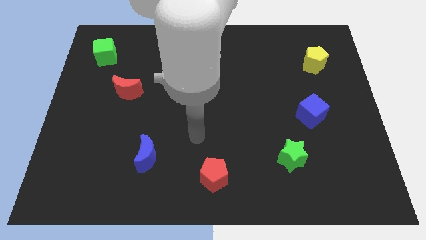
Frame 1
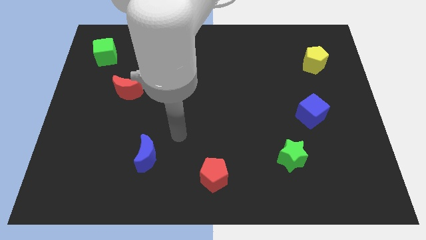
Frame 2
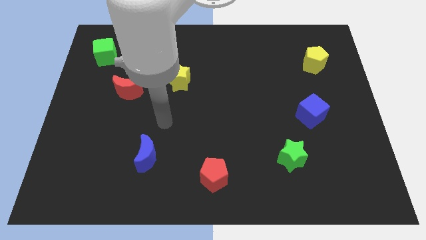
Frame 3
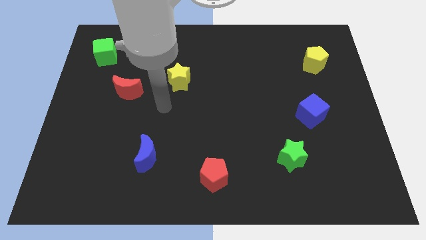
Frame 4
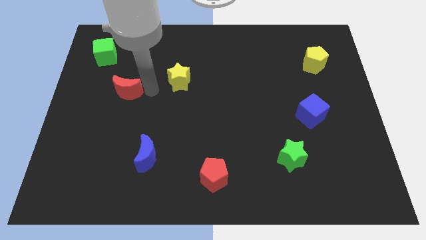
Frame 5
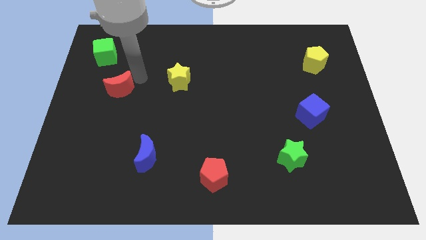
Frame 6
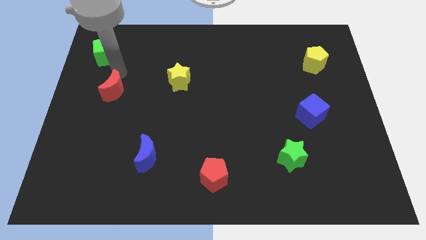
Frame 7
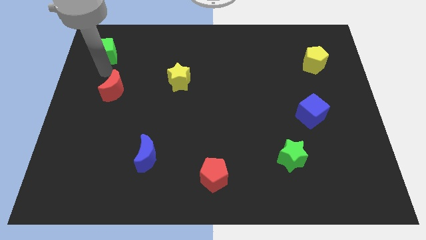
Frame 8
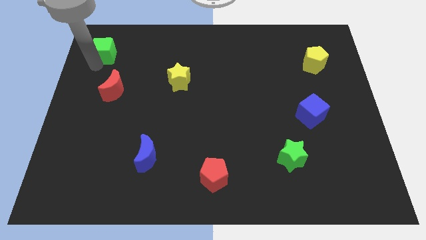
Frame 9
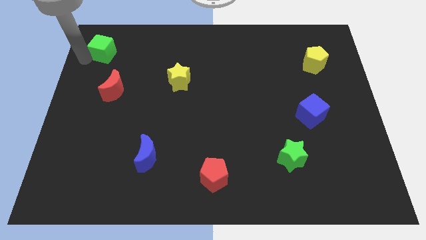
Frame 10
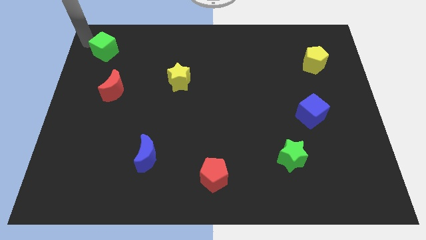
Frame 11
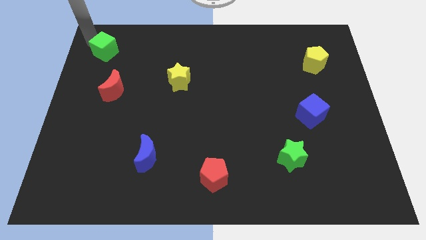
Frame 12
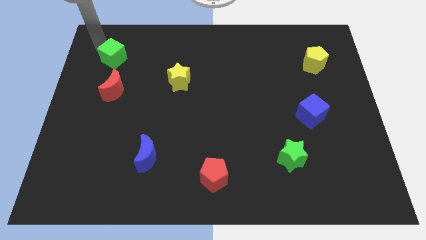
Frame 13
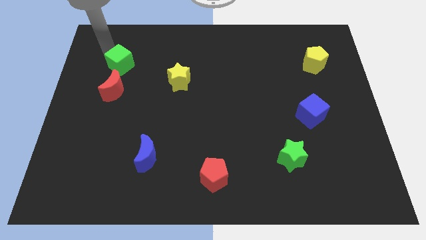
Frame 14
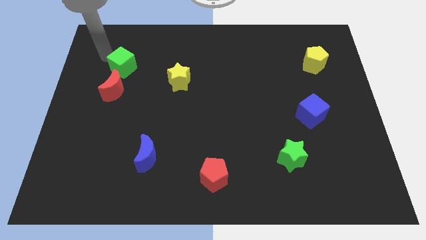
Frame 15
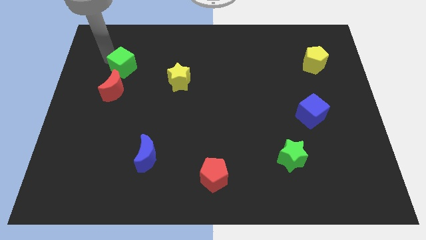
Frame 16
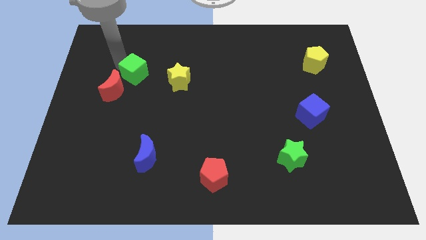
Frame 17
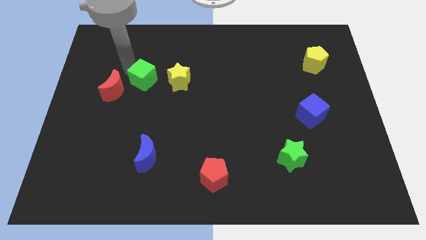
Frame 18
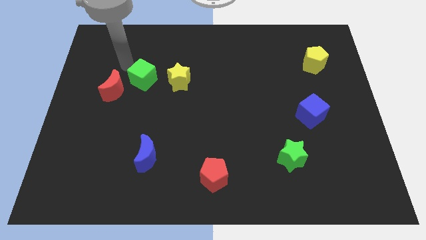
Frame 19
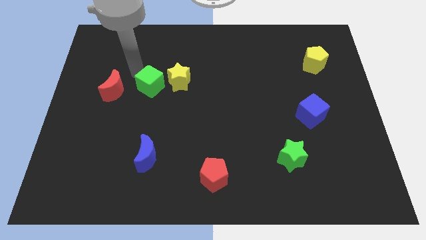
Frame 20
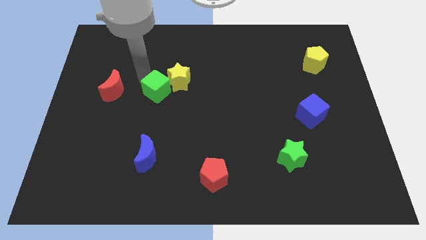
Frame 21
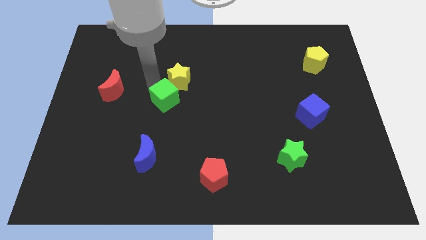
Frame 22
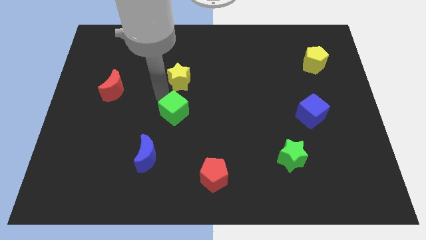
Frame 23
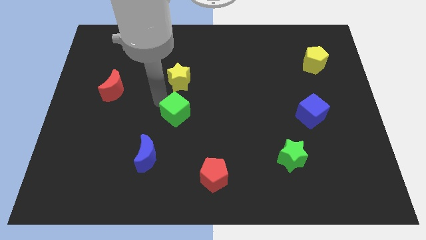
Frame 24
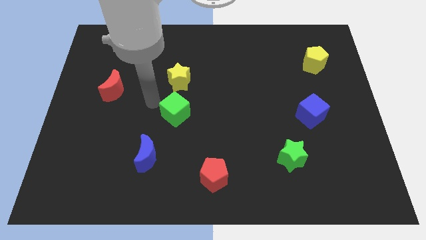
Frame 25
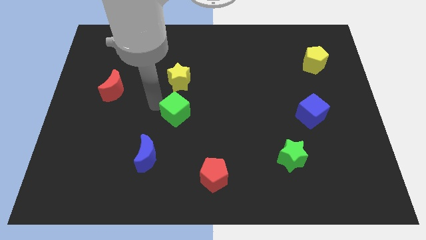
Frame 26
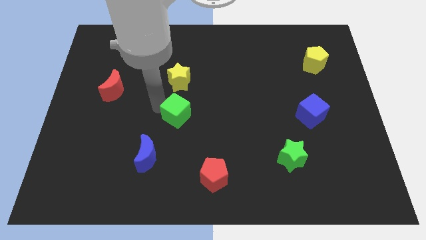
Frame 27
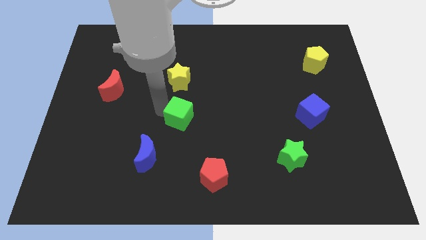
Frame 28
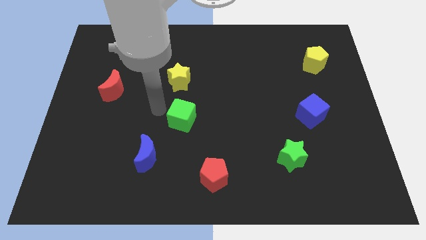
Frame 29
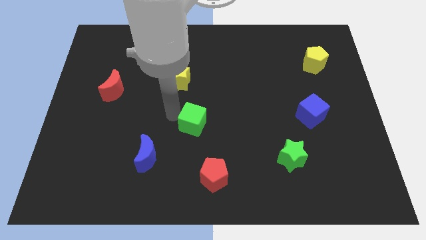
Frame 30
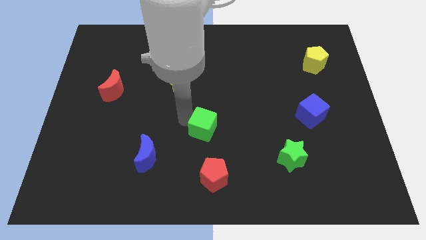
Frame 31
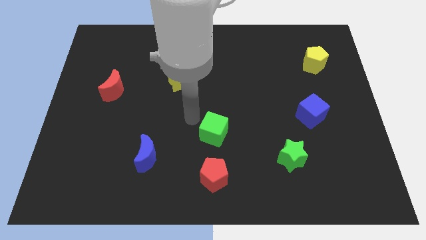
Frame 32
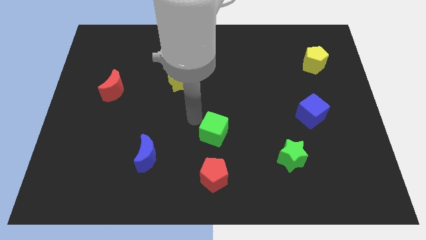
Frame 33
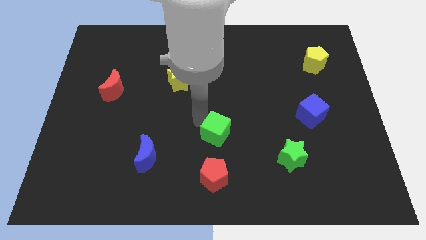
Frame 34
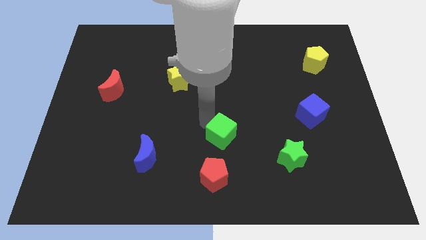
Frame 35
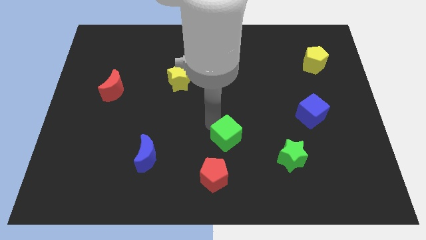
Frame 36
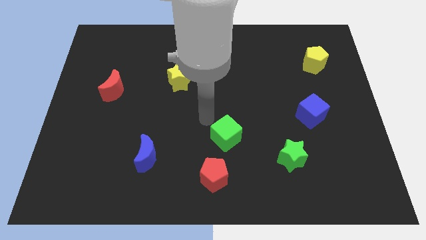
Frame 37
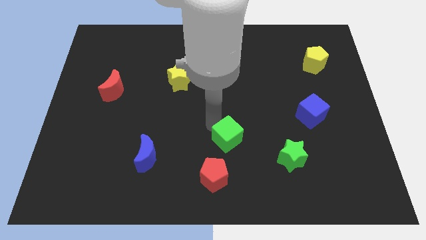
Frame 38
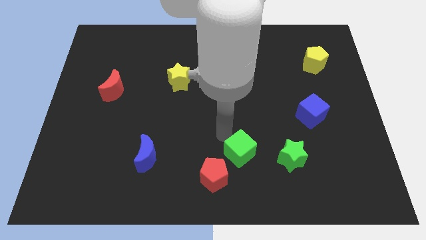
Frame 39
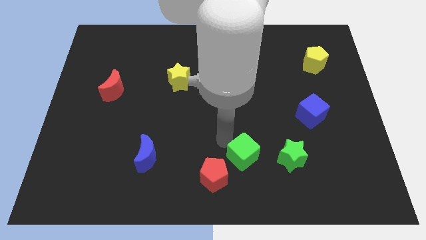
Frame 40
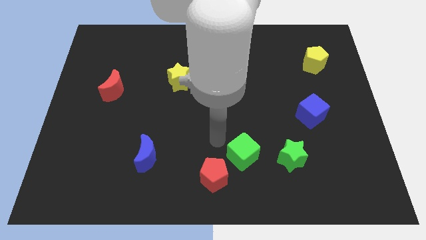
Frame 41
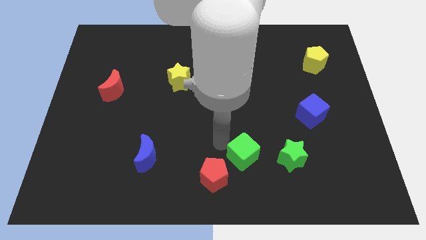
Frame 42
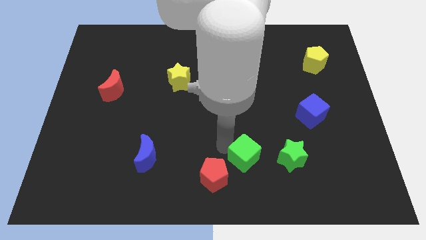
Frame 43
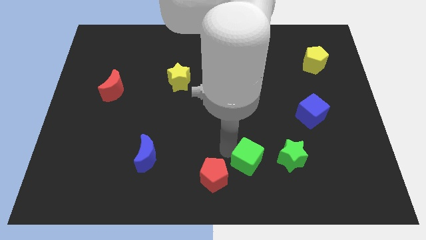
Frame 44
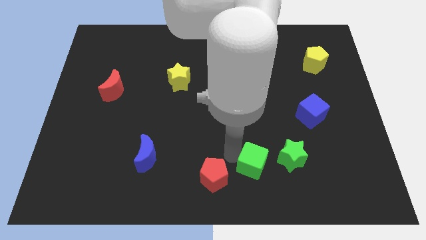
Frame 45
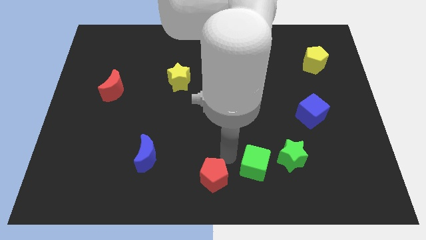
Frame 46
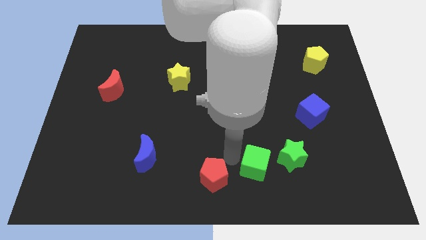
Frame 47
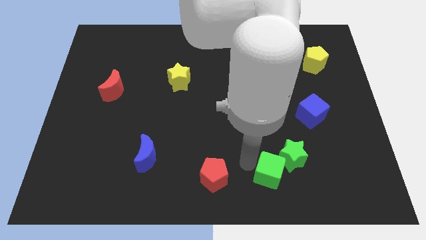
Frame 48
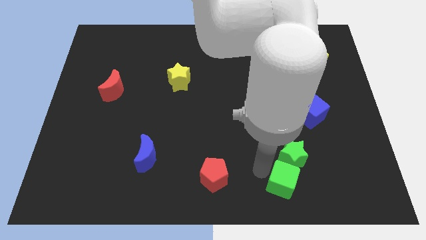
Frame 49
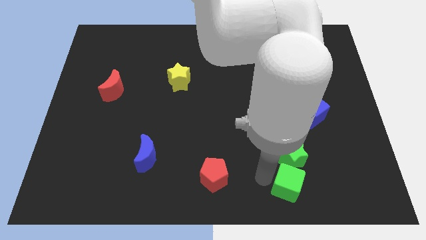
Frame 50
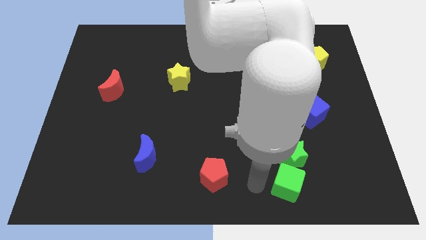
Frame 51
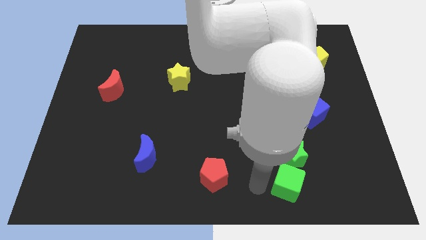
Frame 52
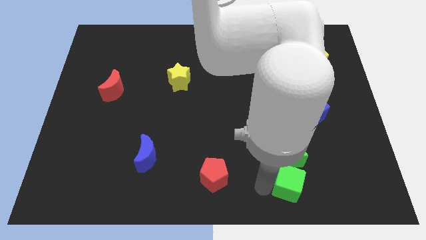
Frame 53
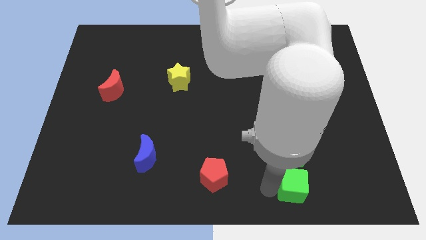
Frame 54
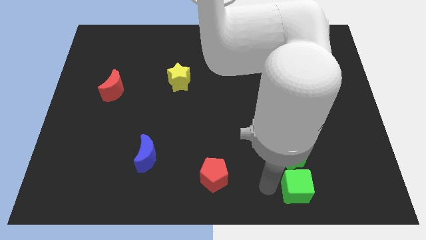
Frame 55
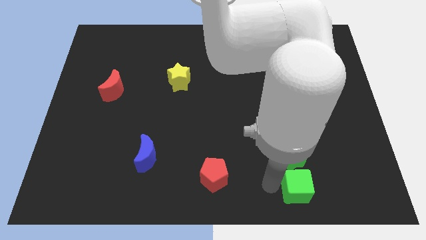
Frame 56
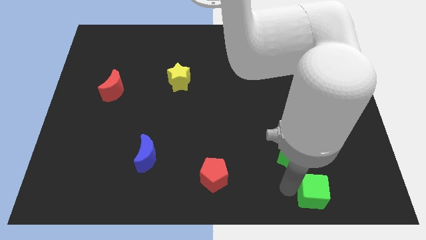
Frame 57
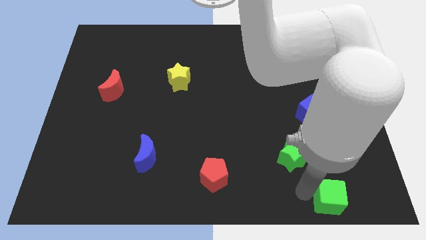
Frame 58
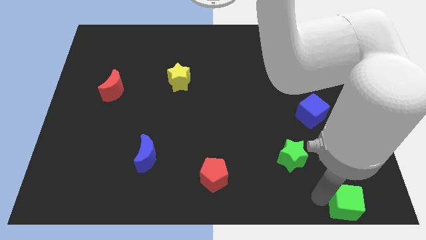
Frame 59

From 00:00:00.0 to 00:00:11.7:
put the green cube to the bottom right of the board

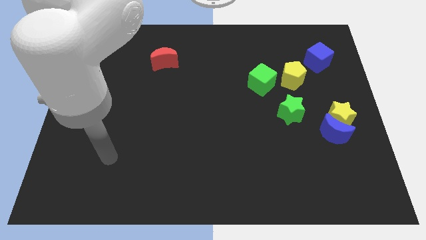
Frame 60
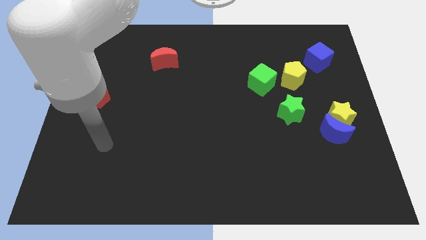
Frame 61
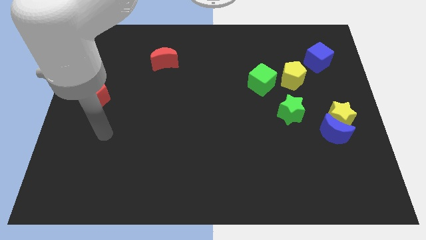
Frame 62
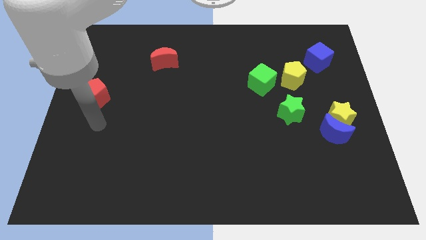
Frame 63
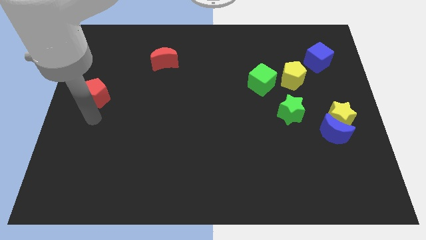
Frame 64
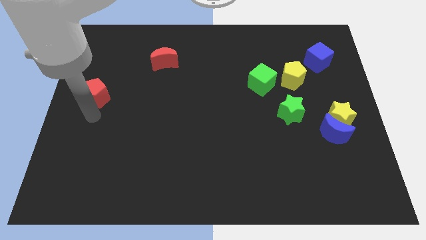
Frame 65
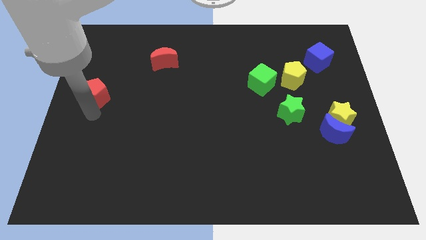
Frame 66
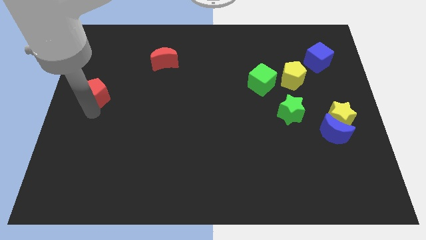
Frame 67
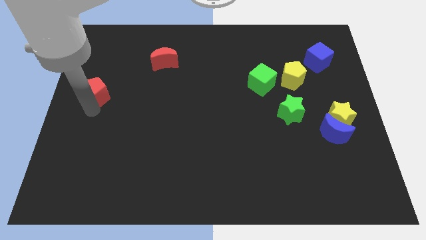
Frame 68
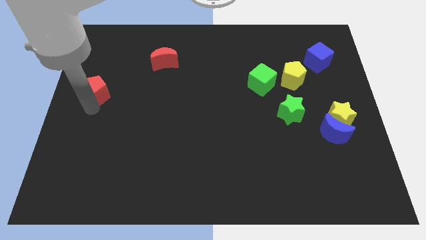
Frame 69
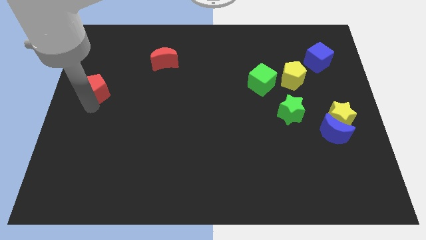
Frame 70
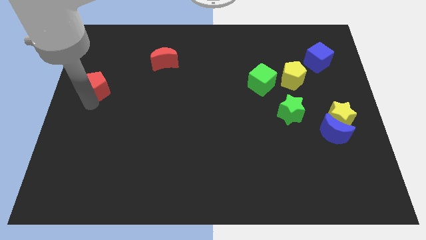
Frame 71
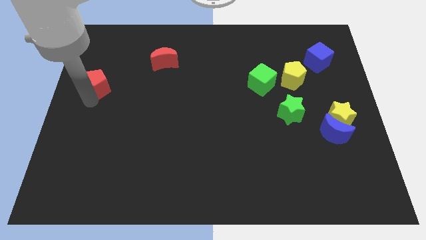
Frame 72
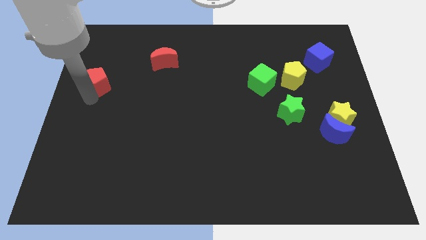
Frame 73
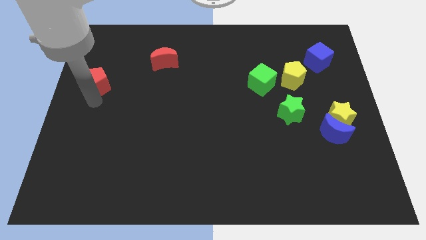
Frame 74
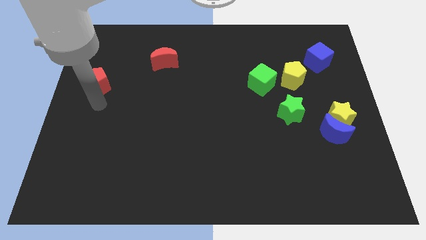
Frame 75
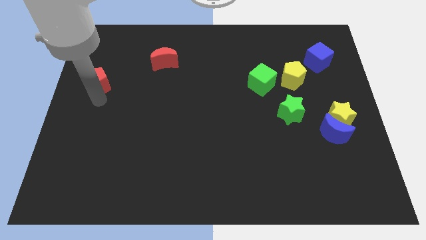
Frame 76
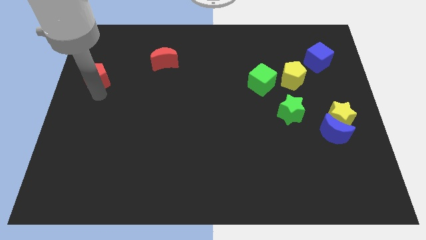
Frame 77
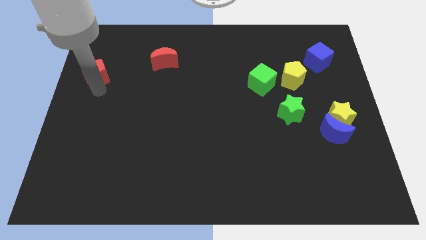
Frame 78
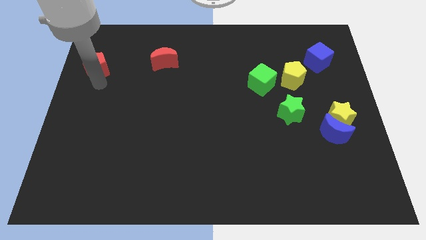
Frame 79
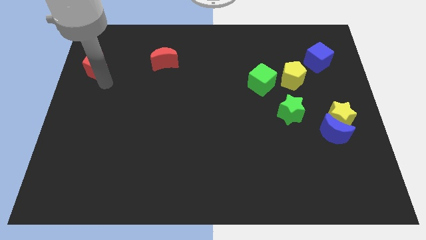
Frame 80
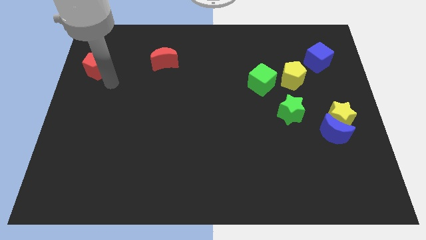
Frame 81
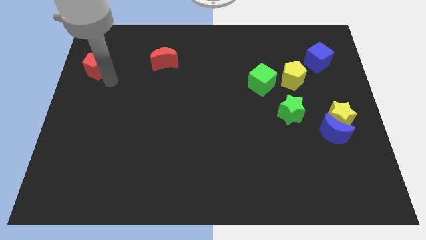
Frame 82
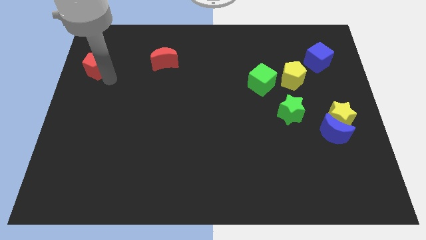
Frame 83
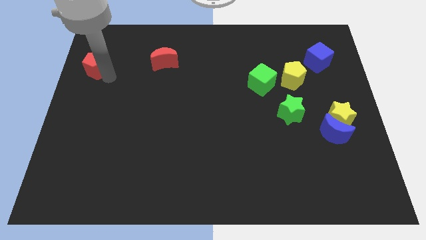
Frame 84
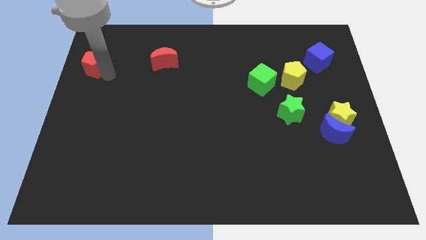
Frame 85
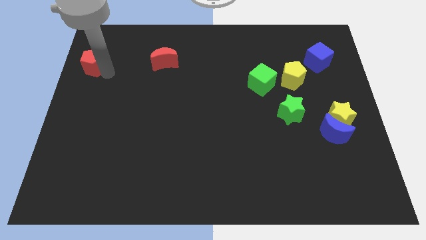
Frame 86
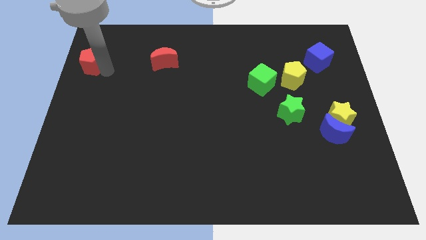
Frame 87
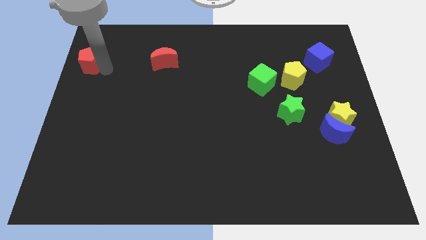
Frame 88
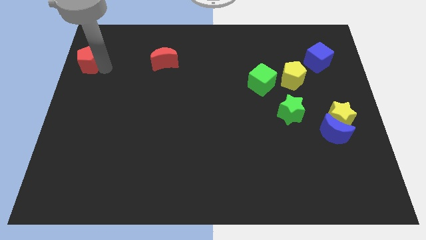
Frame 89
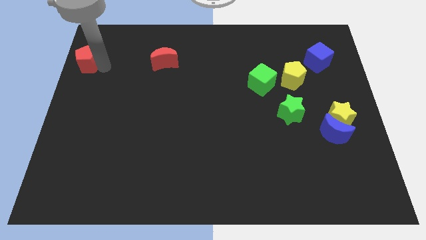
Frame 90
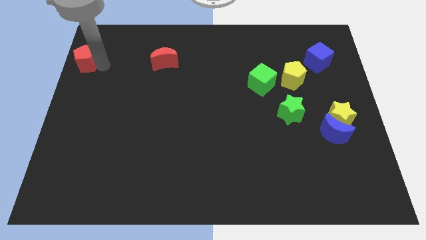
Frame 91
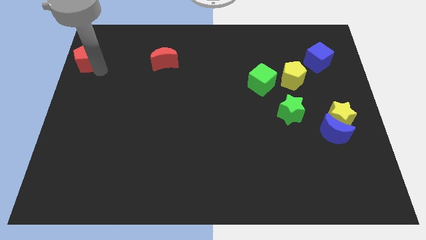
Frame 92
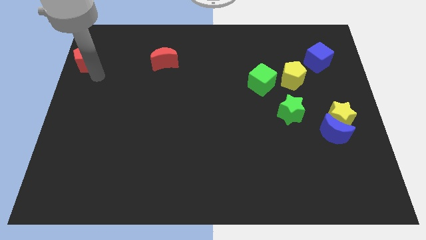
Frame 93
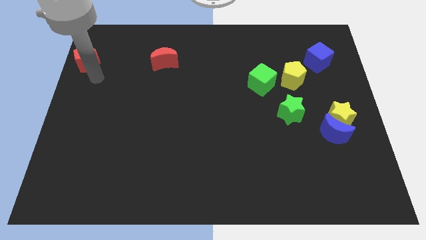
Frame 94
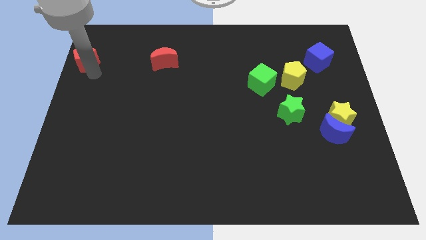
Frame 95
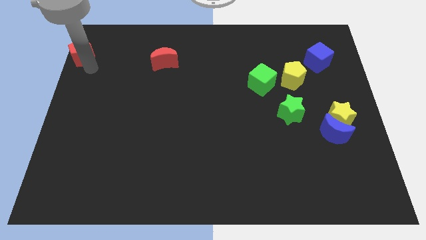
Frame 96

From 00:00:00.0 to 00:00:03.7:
put the red pentagon to the top left corner
